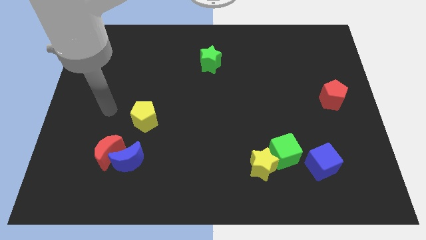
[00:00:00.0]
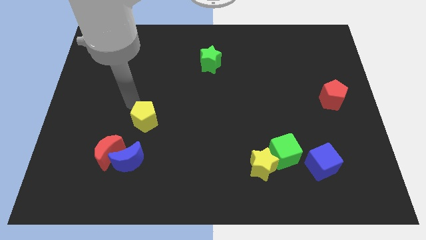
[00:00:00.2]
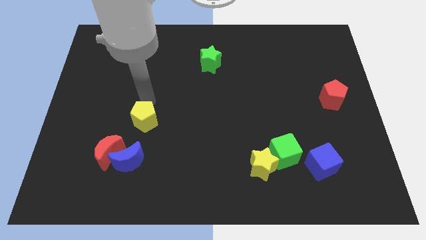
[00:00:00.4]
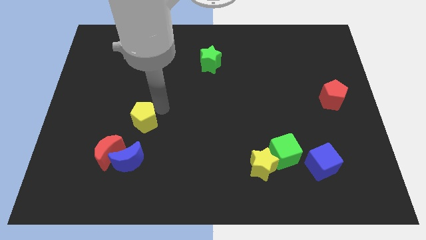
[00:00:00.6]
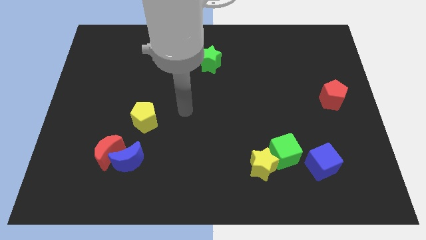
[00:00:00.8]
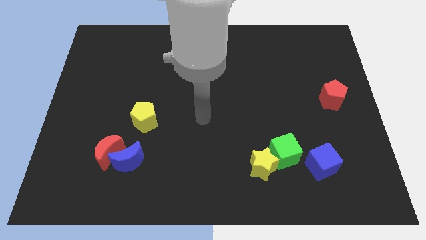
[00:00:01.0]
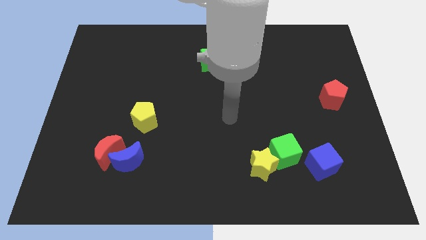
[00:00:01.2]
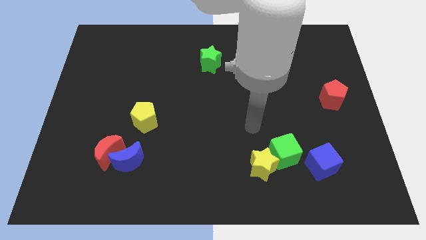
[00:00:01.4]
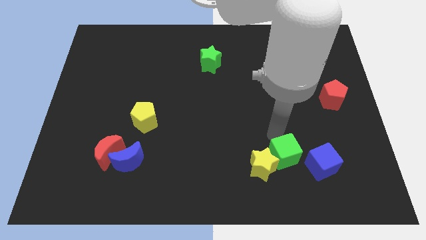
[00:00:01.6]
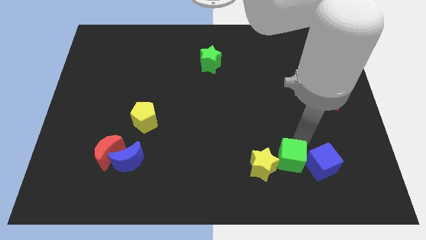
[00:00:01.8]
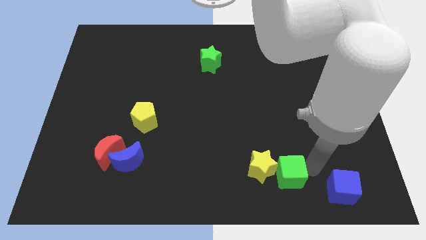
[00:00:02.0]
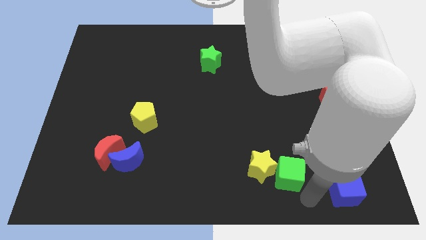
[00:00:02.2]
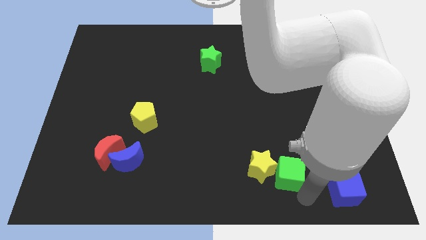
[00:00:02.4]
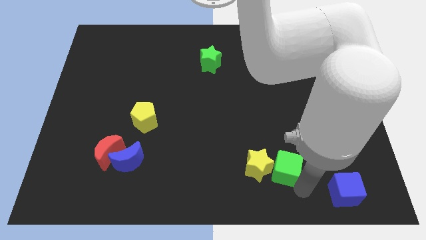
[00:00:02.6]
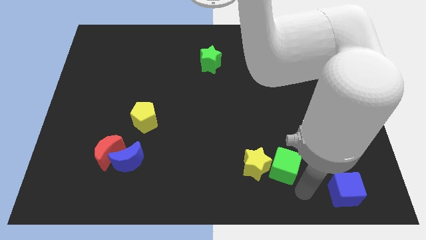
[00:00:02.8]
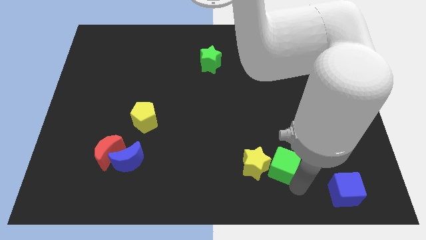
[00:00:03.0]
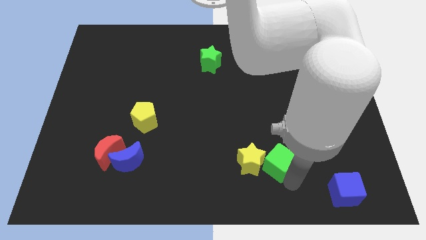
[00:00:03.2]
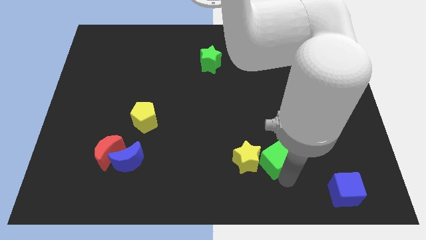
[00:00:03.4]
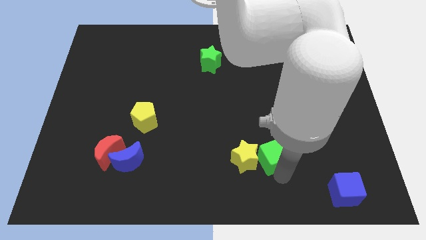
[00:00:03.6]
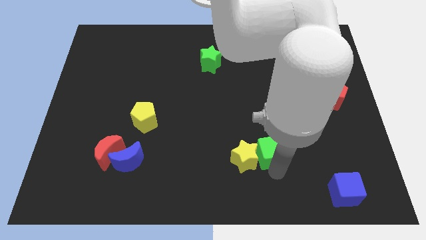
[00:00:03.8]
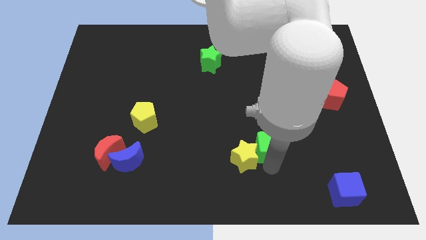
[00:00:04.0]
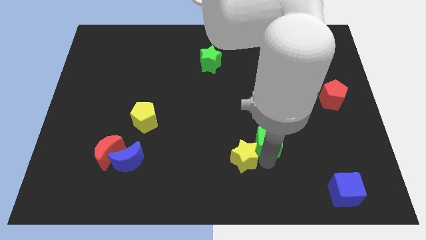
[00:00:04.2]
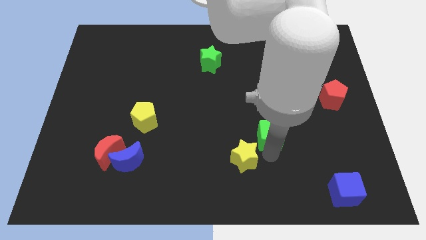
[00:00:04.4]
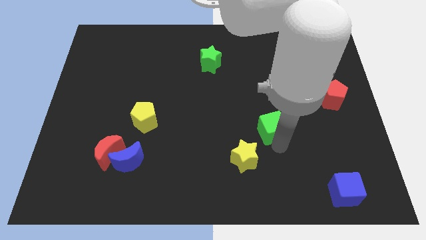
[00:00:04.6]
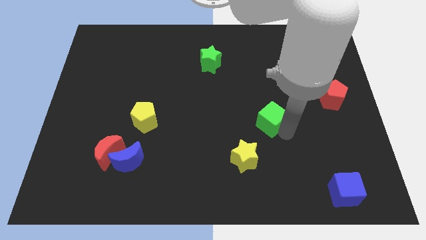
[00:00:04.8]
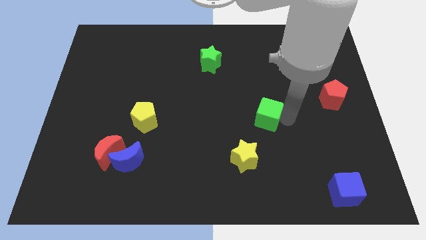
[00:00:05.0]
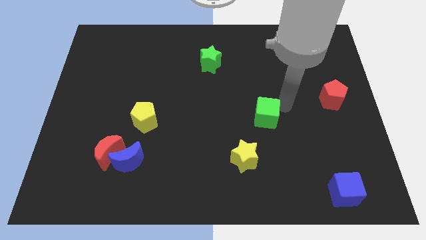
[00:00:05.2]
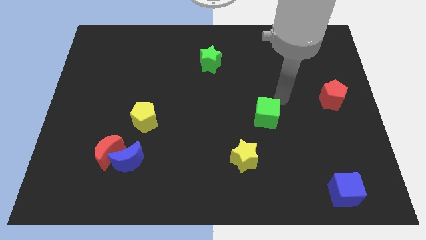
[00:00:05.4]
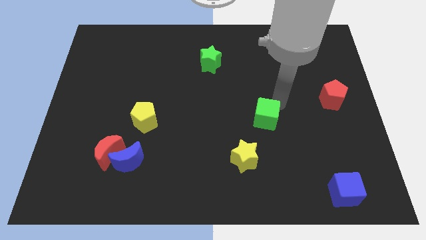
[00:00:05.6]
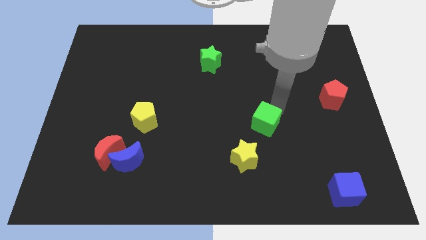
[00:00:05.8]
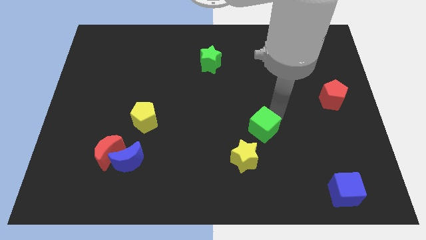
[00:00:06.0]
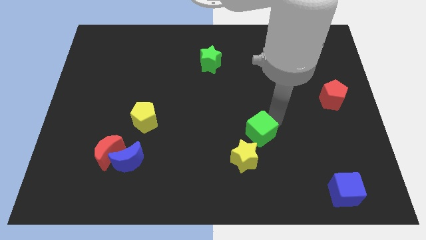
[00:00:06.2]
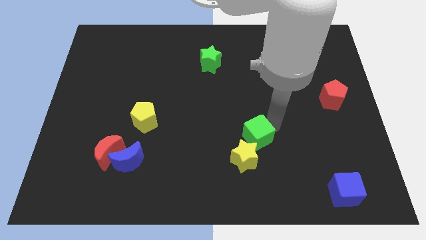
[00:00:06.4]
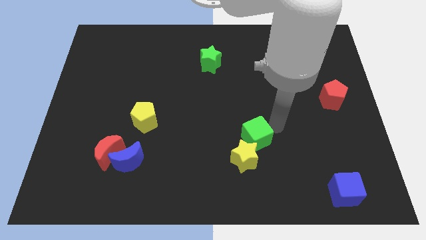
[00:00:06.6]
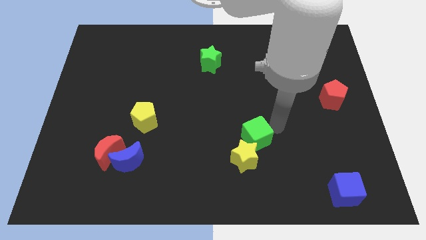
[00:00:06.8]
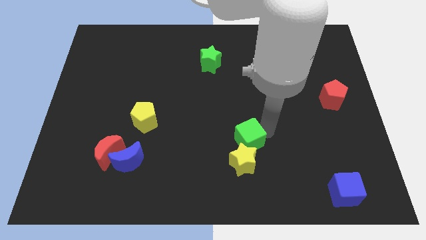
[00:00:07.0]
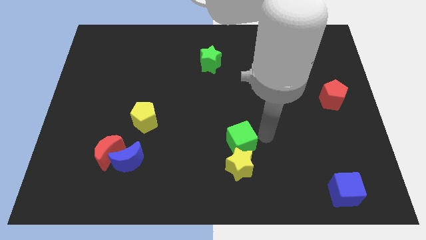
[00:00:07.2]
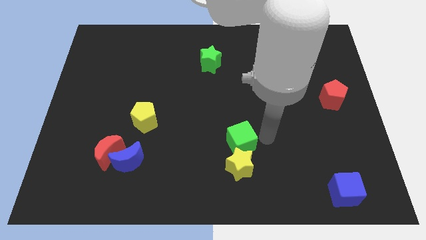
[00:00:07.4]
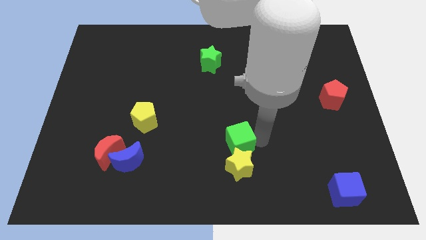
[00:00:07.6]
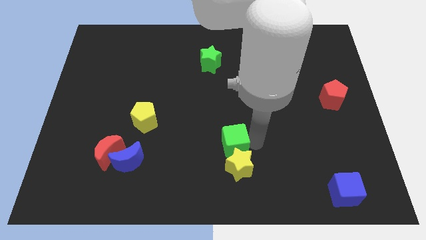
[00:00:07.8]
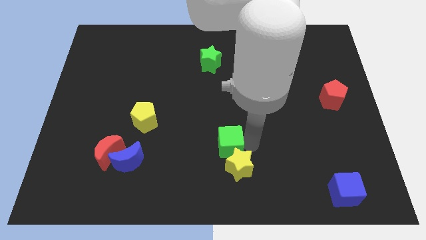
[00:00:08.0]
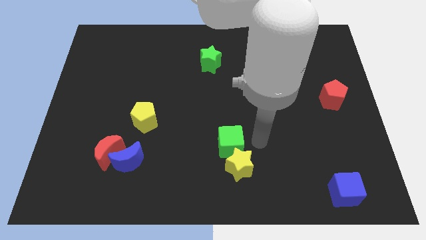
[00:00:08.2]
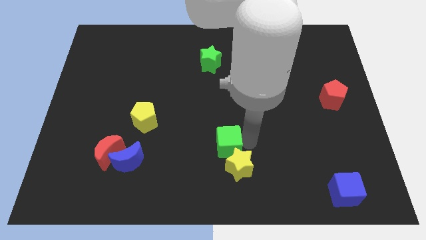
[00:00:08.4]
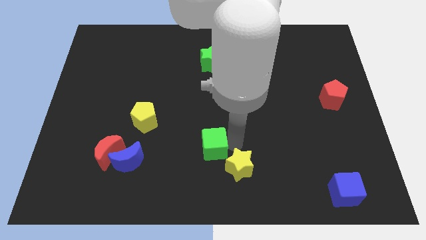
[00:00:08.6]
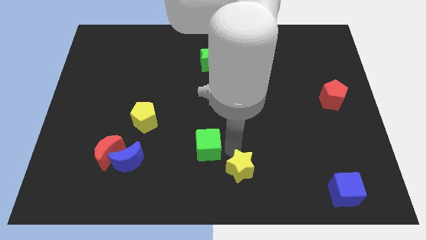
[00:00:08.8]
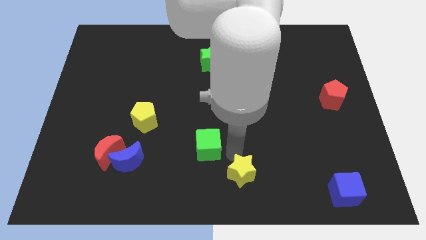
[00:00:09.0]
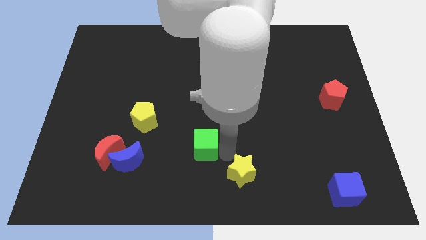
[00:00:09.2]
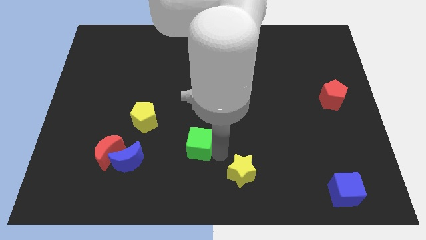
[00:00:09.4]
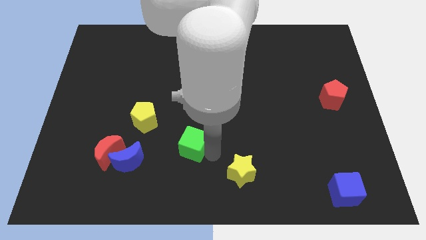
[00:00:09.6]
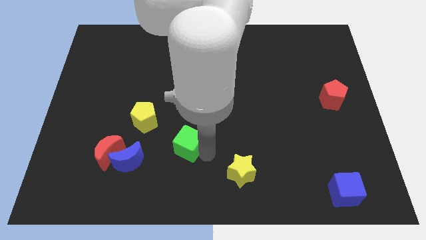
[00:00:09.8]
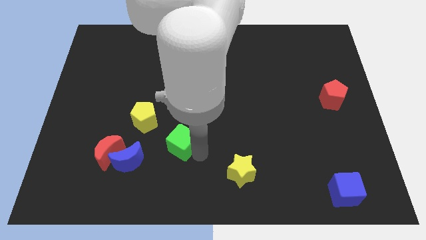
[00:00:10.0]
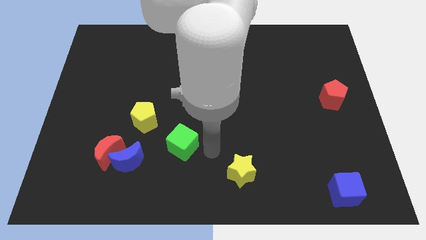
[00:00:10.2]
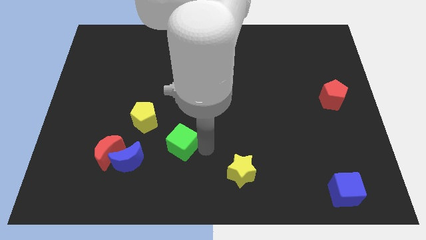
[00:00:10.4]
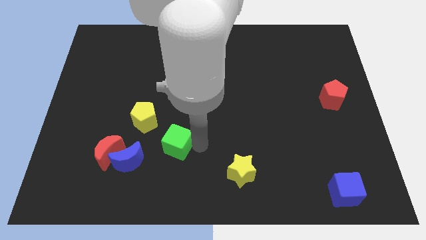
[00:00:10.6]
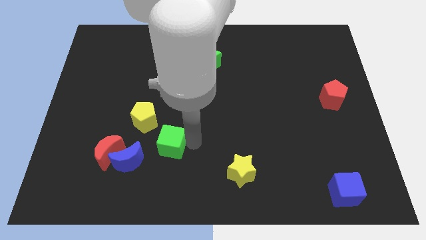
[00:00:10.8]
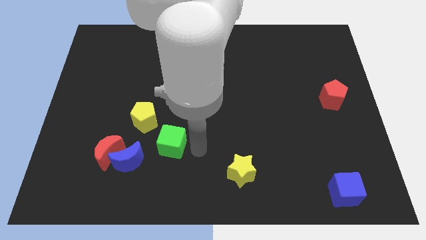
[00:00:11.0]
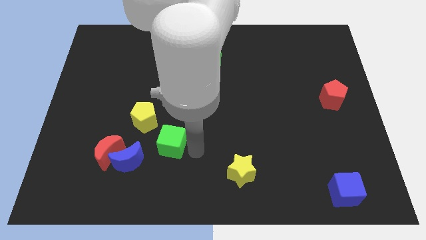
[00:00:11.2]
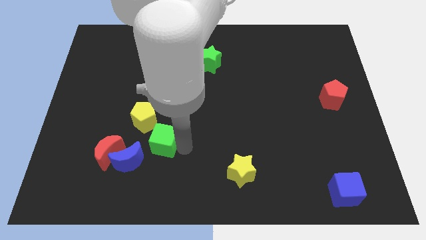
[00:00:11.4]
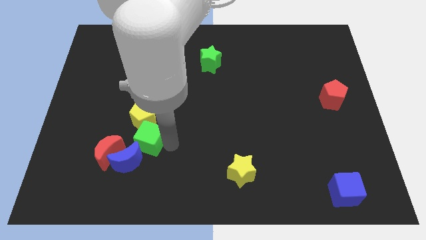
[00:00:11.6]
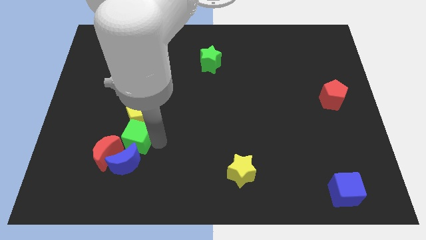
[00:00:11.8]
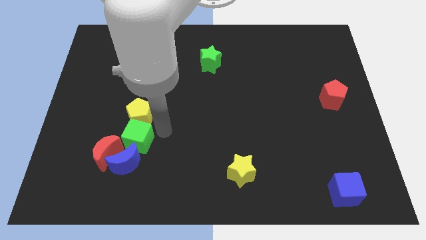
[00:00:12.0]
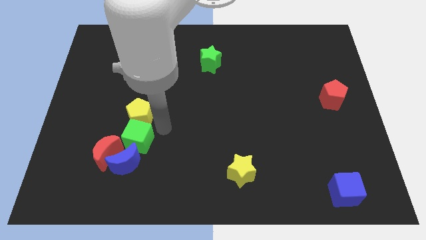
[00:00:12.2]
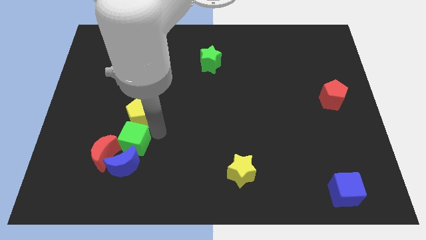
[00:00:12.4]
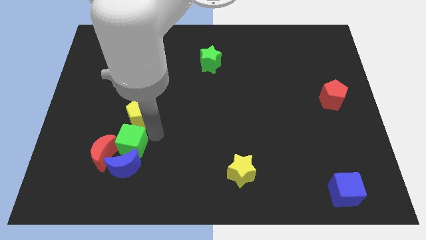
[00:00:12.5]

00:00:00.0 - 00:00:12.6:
move the green cube close to the red moon

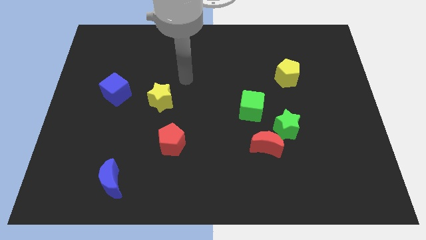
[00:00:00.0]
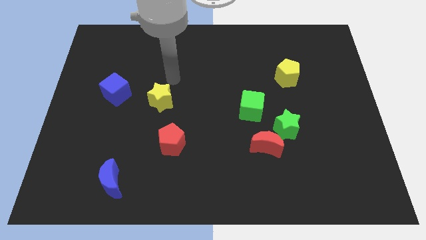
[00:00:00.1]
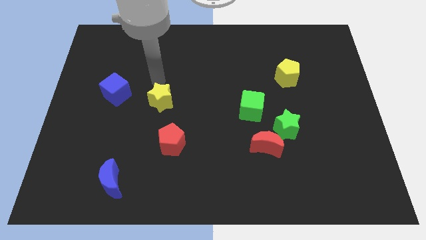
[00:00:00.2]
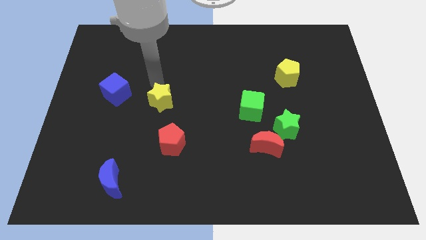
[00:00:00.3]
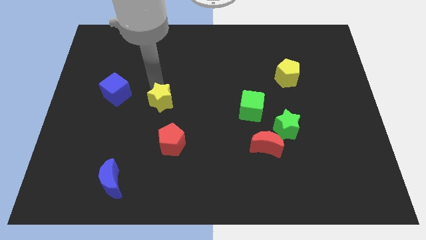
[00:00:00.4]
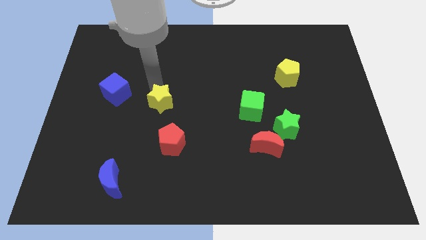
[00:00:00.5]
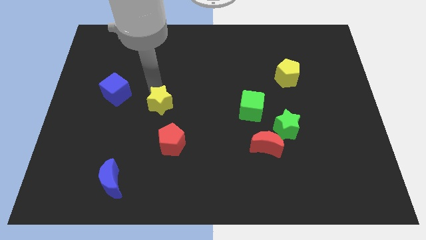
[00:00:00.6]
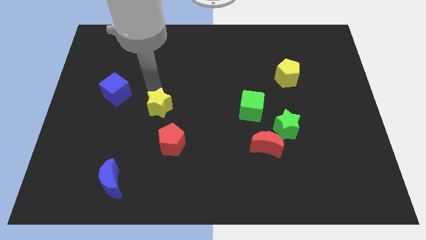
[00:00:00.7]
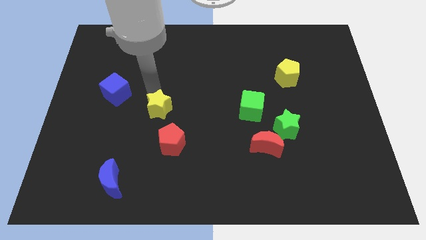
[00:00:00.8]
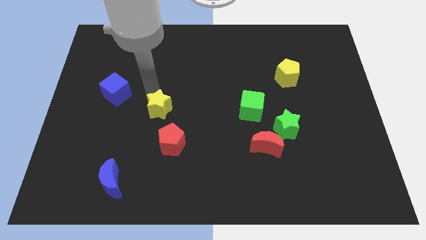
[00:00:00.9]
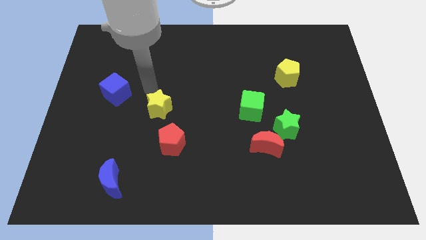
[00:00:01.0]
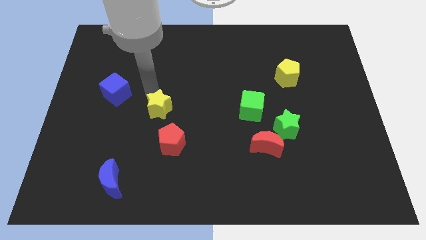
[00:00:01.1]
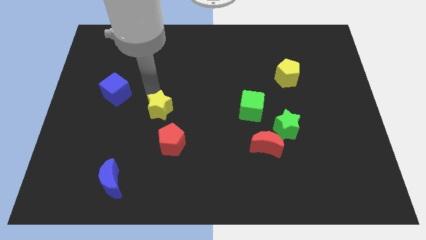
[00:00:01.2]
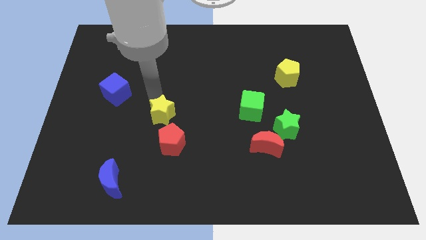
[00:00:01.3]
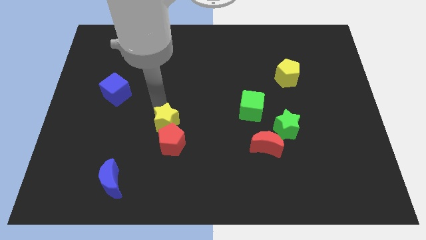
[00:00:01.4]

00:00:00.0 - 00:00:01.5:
push the yellow star towards the red pentagon
